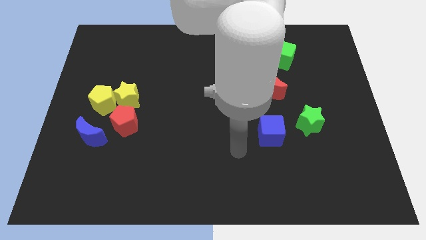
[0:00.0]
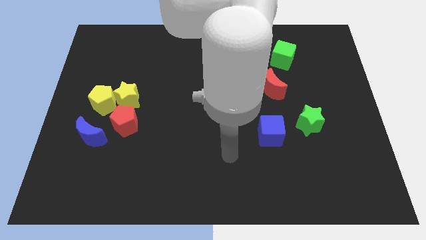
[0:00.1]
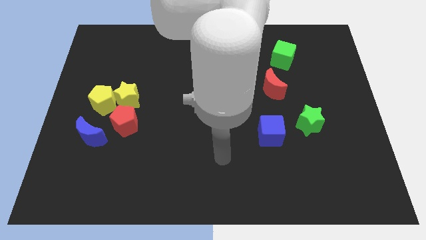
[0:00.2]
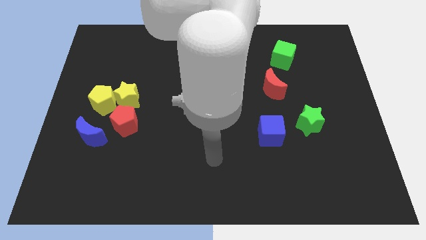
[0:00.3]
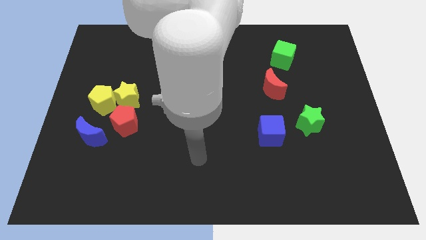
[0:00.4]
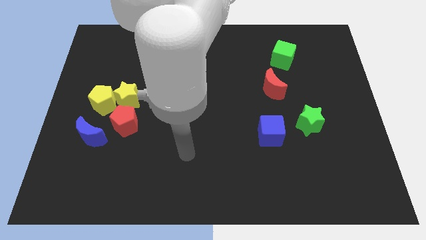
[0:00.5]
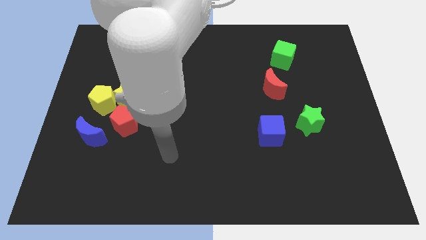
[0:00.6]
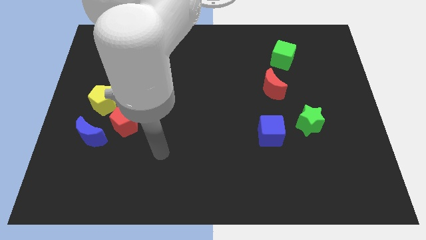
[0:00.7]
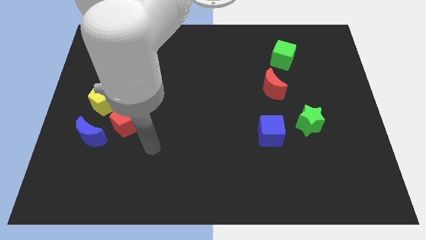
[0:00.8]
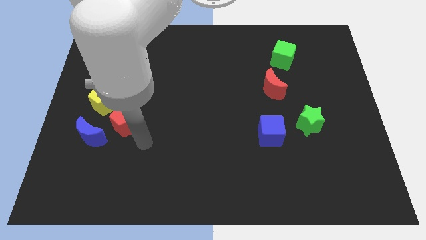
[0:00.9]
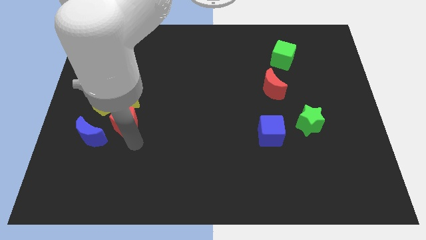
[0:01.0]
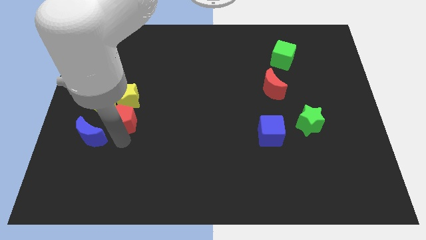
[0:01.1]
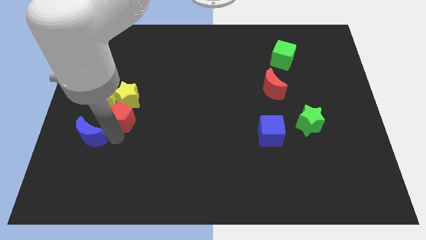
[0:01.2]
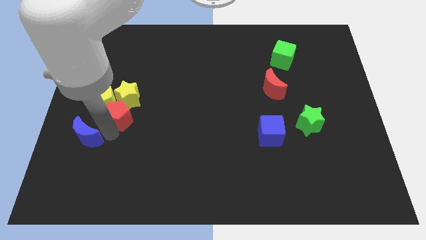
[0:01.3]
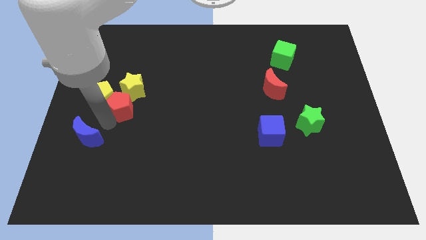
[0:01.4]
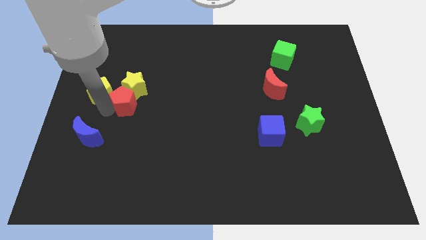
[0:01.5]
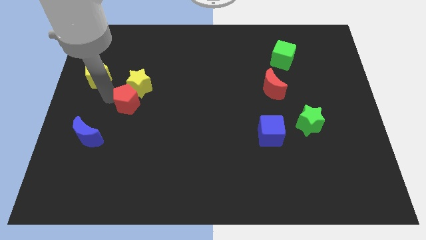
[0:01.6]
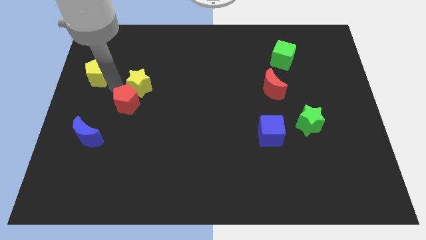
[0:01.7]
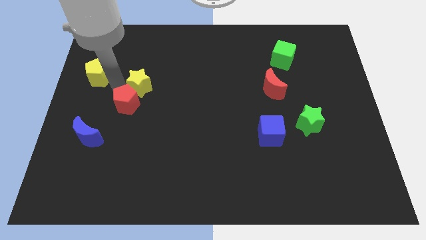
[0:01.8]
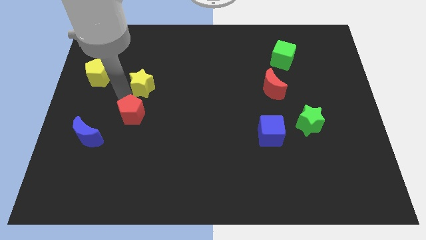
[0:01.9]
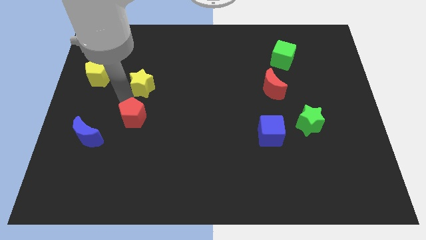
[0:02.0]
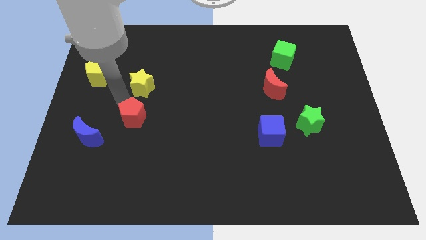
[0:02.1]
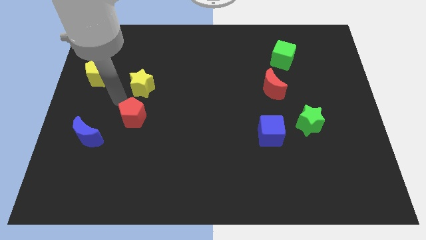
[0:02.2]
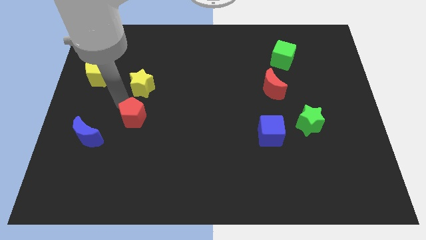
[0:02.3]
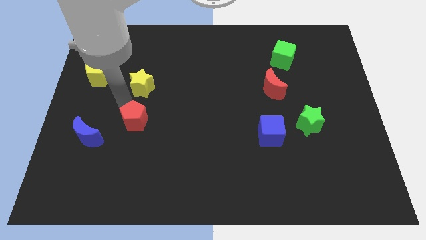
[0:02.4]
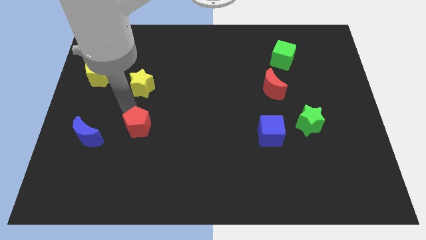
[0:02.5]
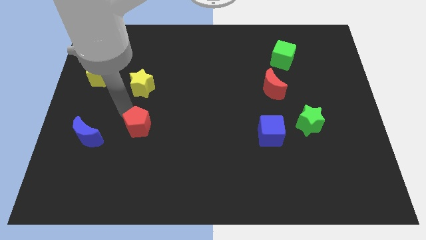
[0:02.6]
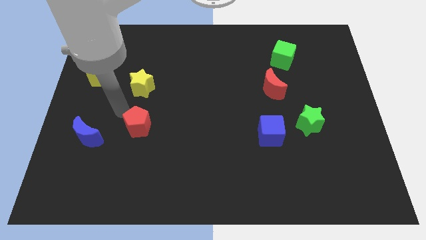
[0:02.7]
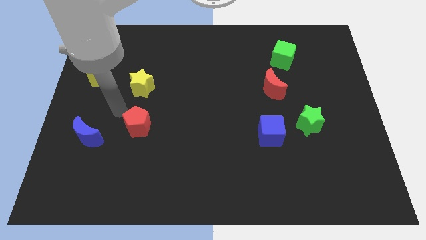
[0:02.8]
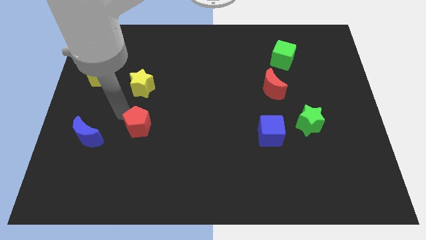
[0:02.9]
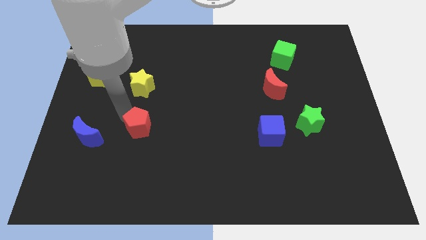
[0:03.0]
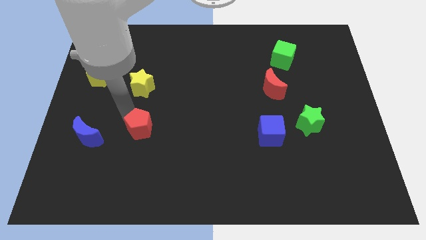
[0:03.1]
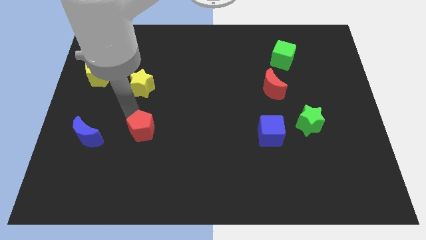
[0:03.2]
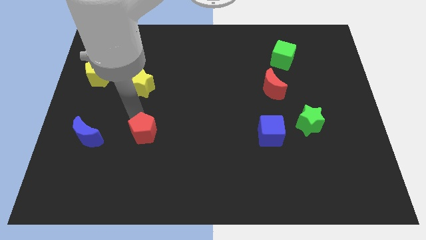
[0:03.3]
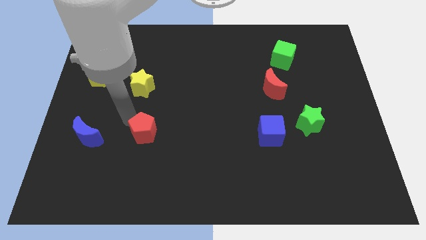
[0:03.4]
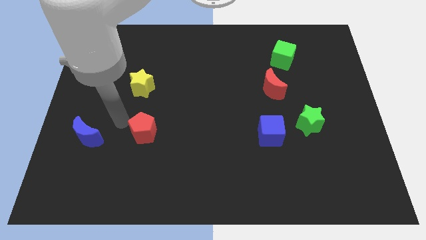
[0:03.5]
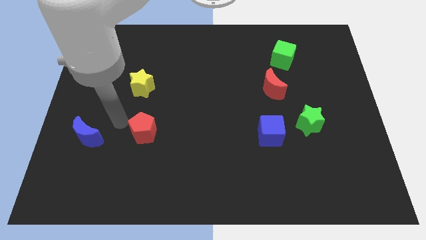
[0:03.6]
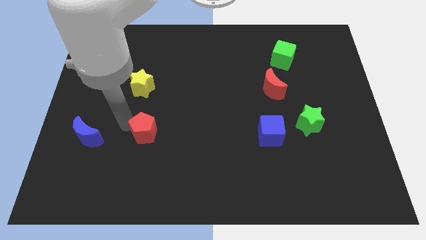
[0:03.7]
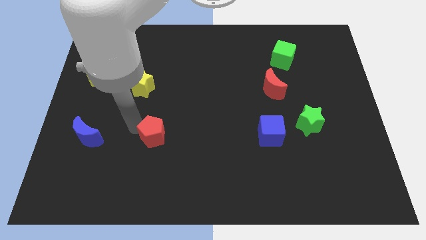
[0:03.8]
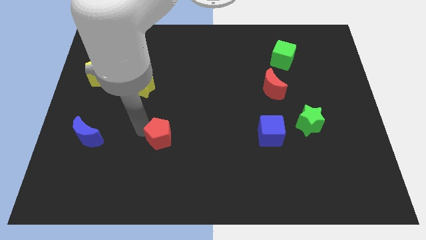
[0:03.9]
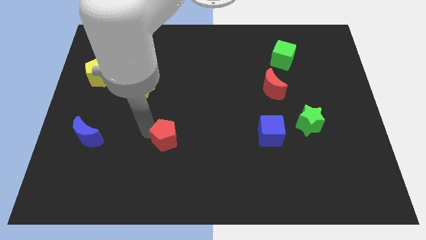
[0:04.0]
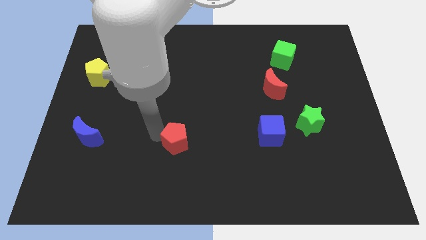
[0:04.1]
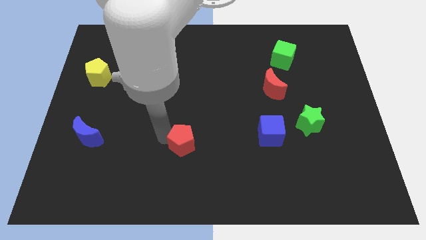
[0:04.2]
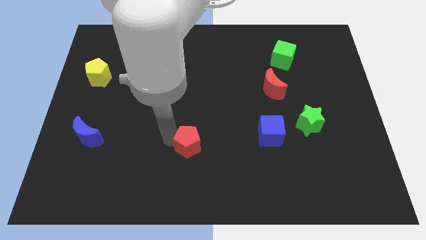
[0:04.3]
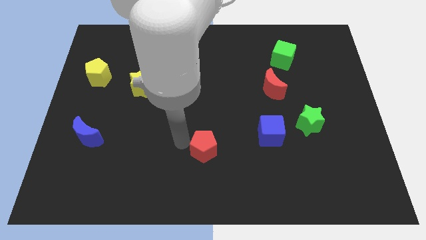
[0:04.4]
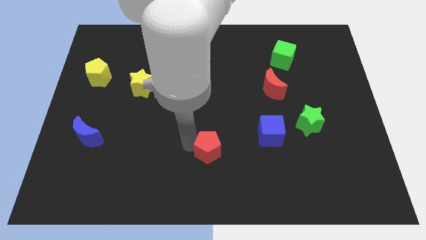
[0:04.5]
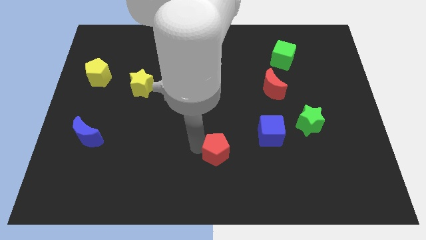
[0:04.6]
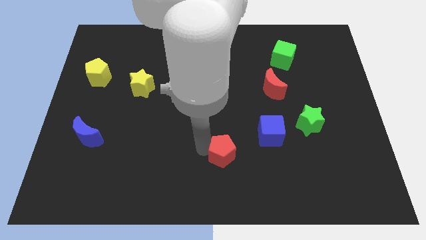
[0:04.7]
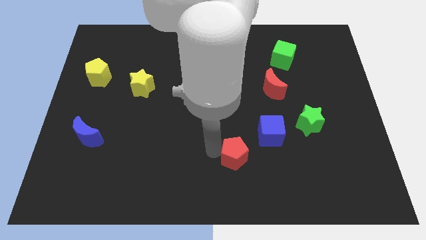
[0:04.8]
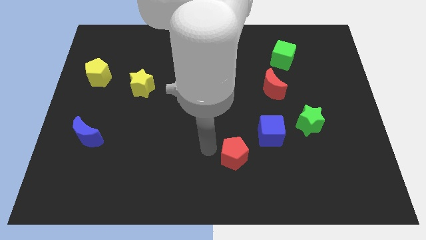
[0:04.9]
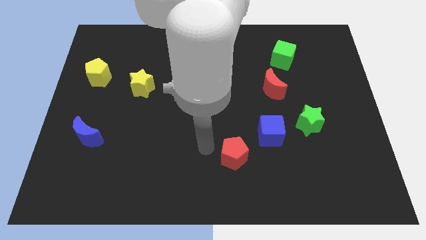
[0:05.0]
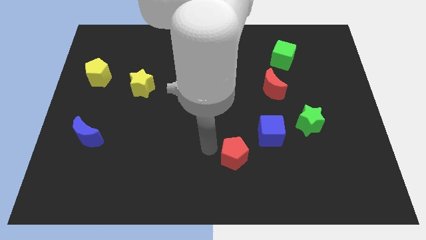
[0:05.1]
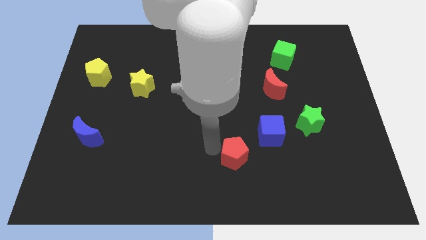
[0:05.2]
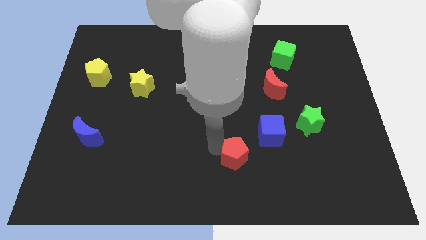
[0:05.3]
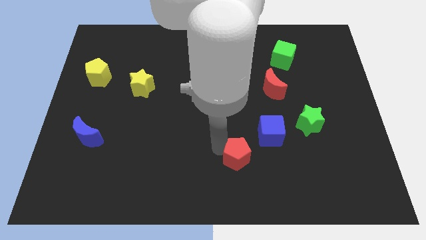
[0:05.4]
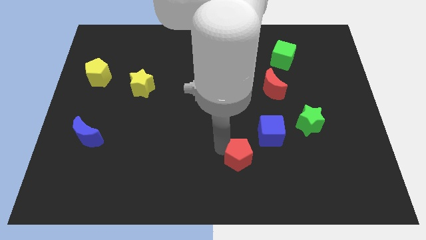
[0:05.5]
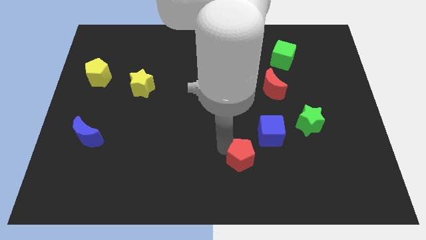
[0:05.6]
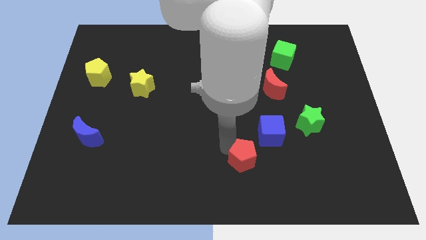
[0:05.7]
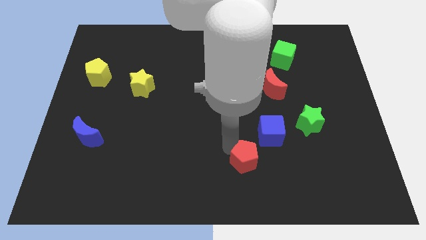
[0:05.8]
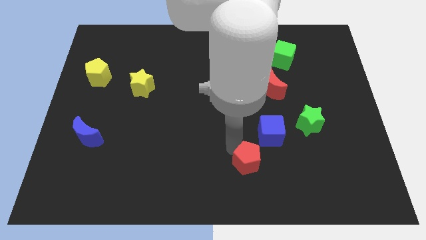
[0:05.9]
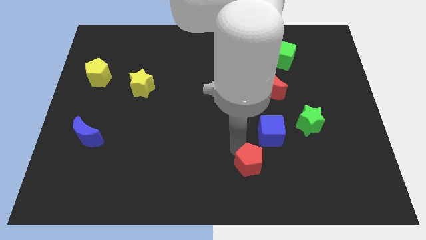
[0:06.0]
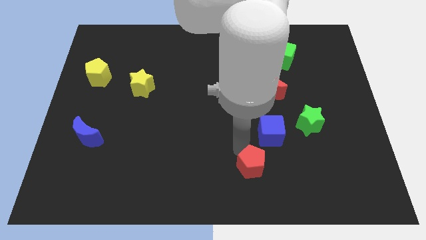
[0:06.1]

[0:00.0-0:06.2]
move the red pentagon below the blue cube
